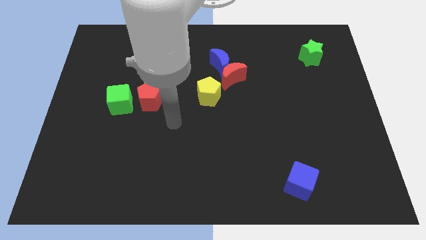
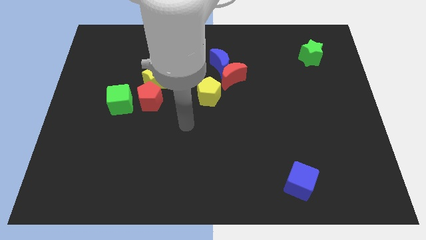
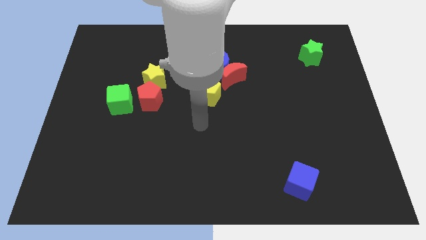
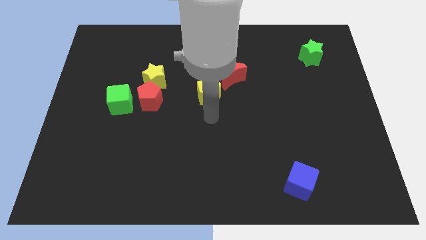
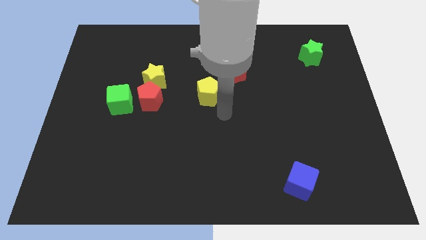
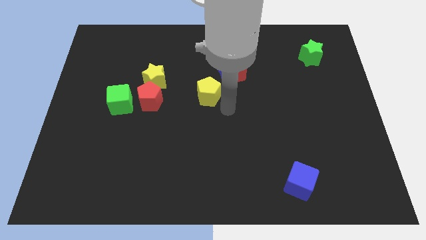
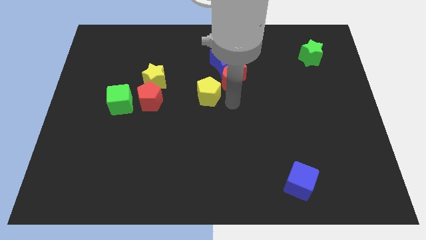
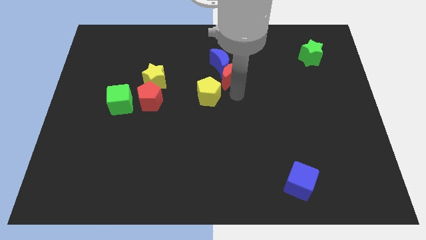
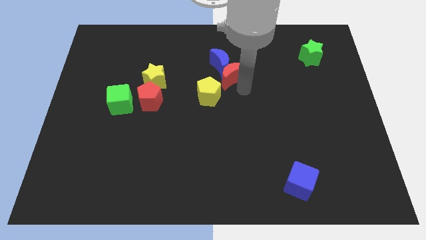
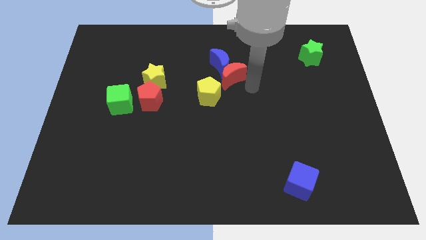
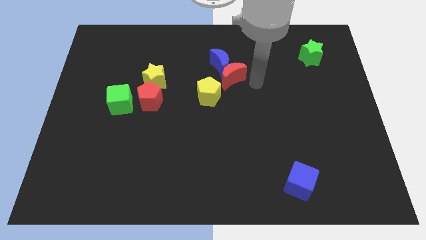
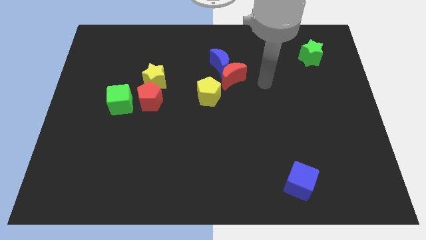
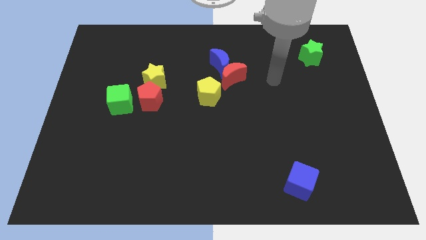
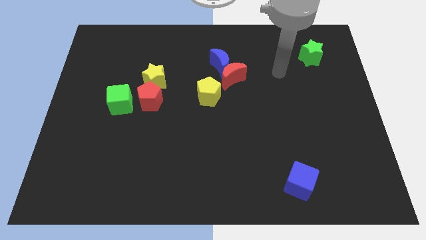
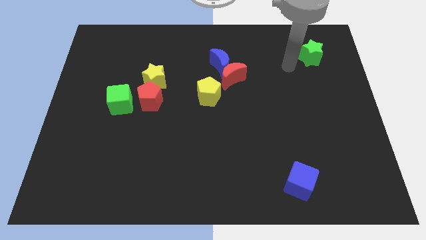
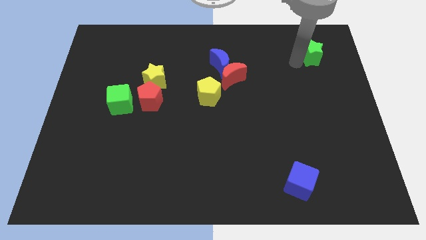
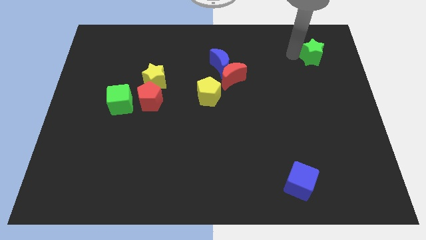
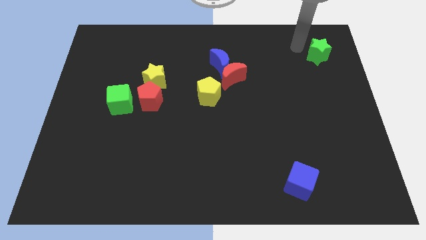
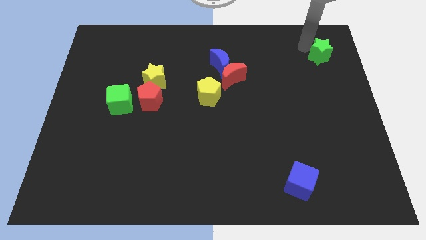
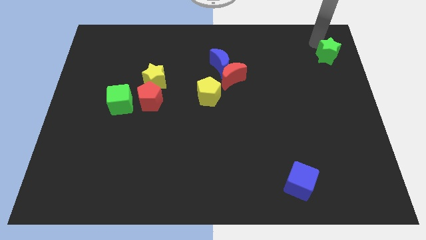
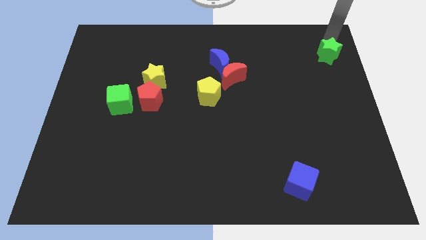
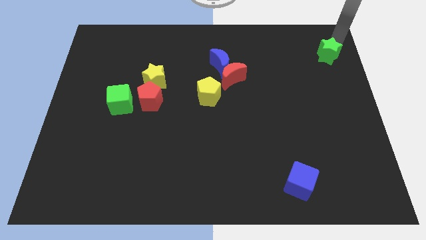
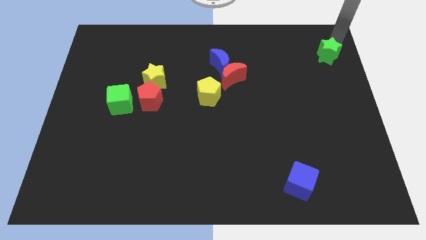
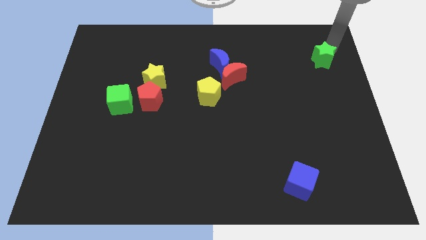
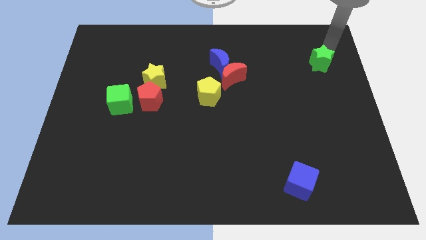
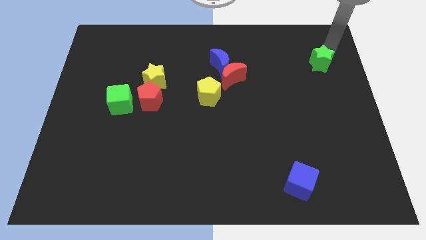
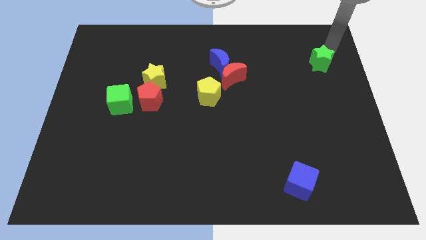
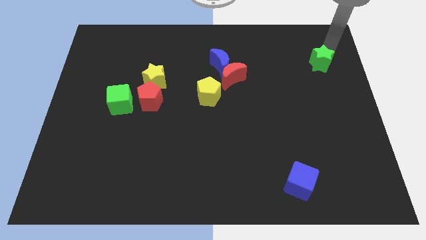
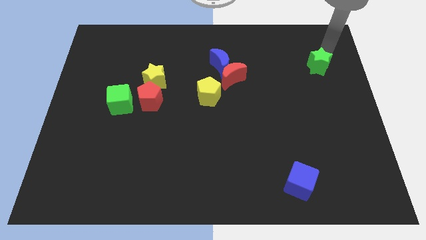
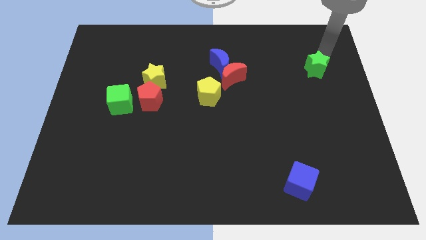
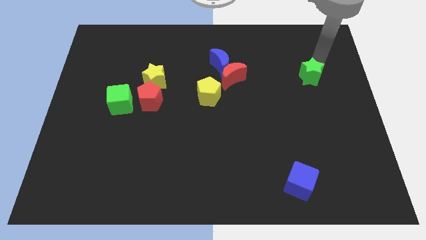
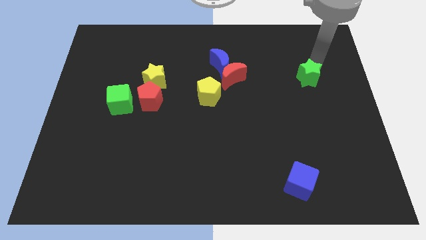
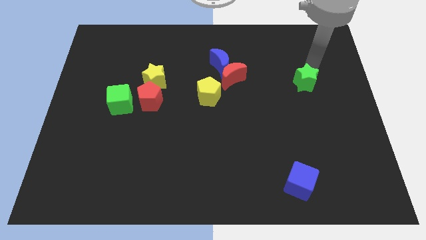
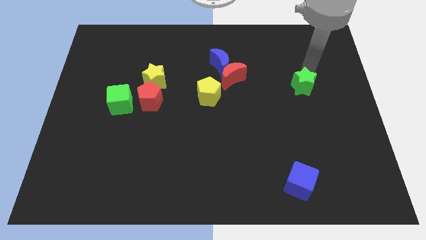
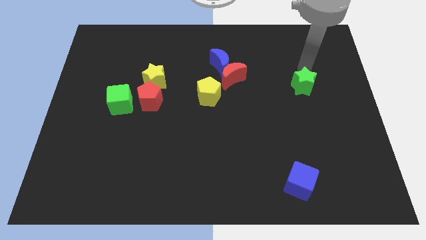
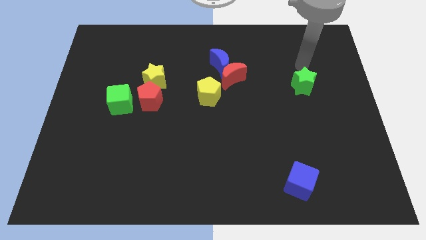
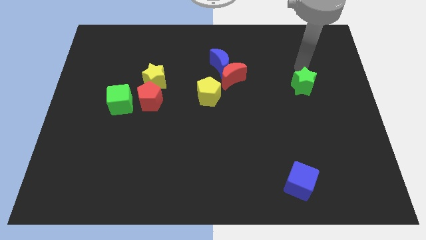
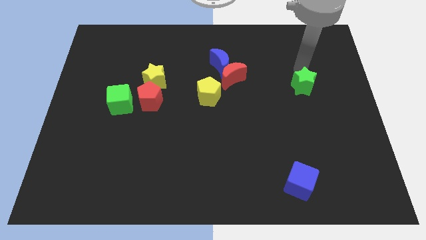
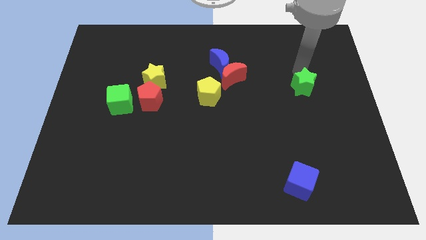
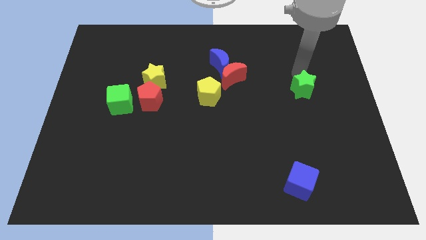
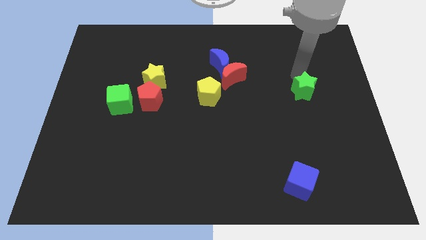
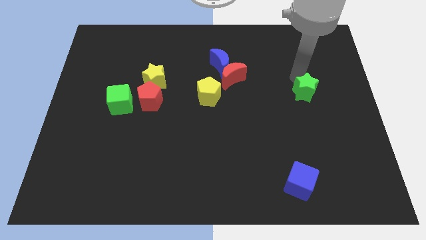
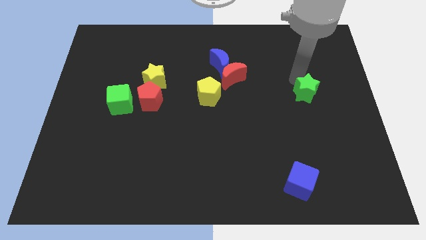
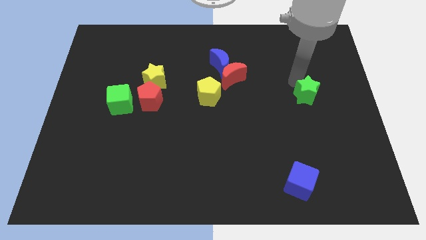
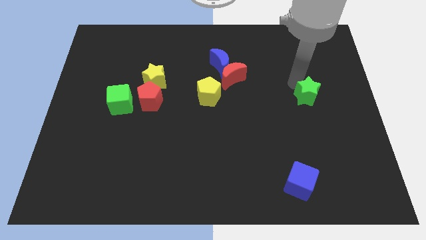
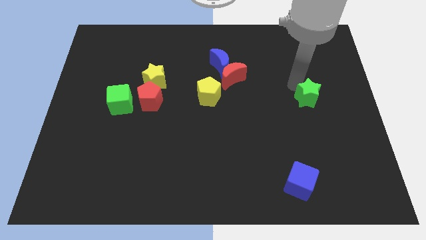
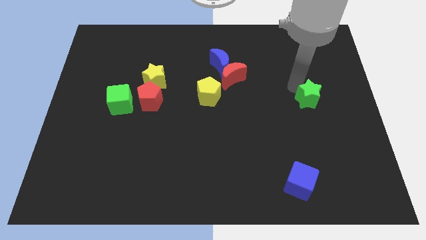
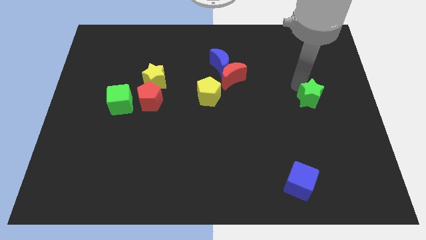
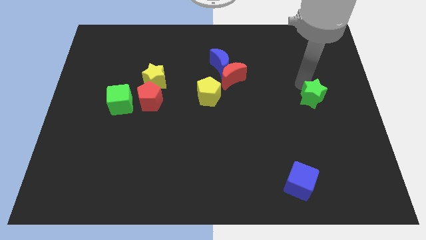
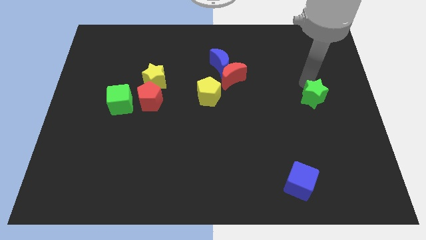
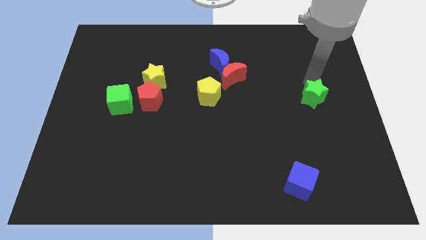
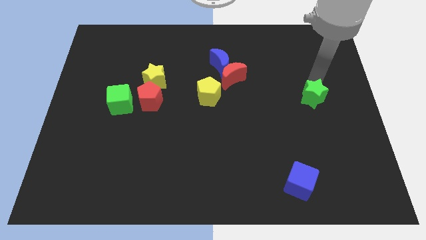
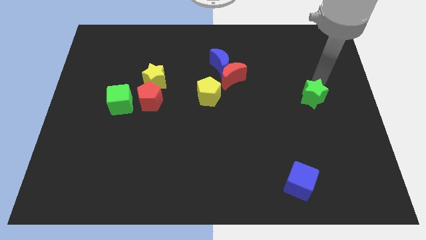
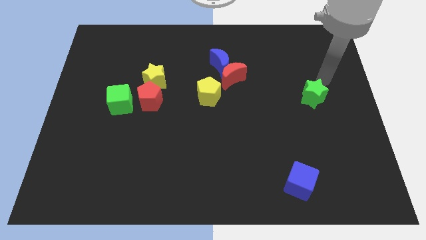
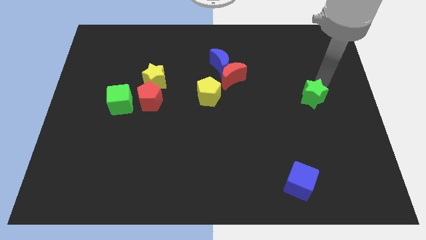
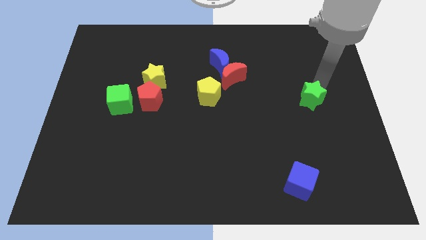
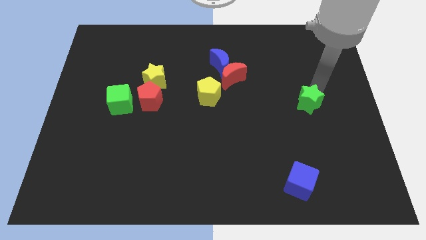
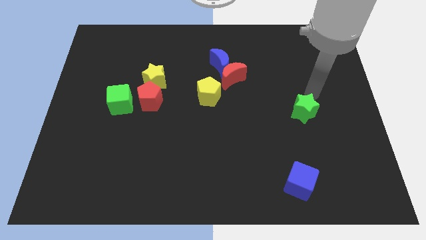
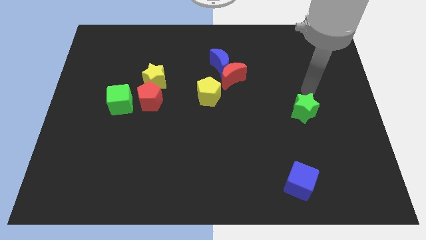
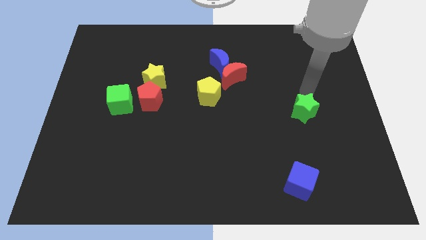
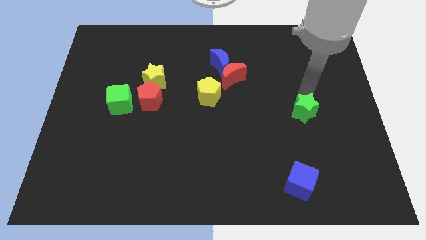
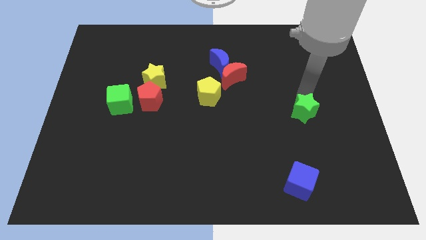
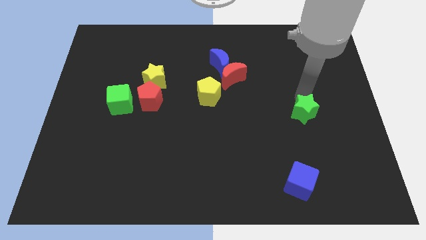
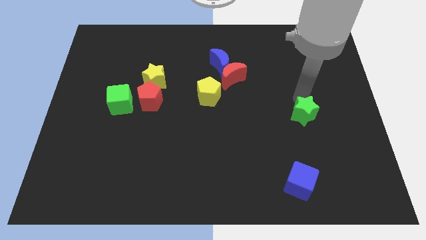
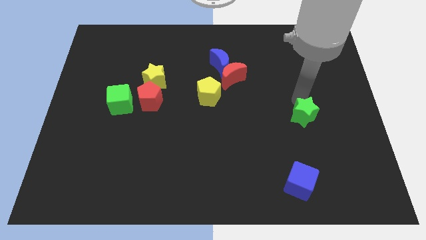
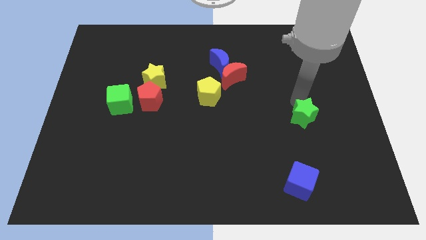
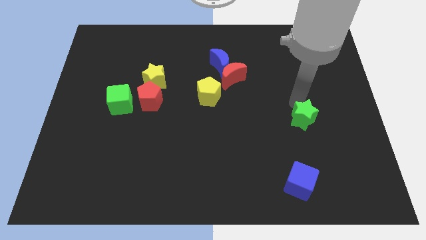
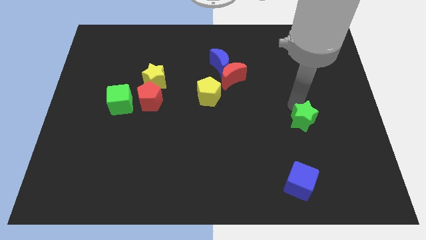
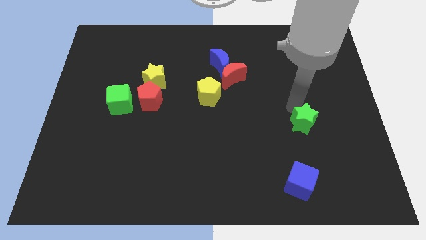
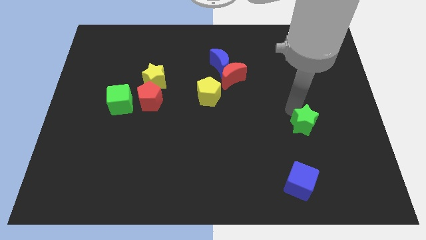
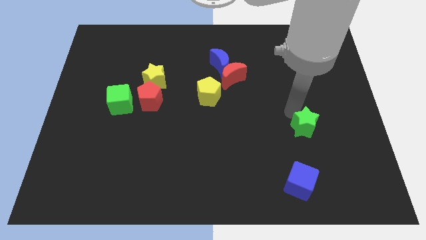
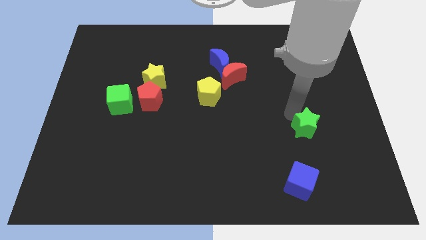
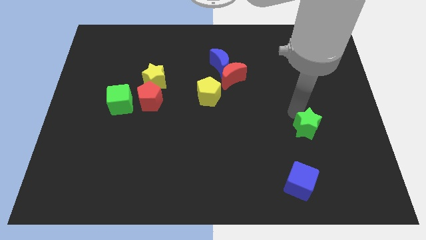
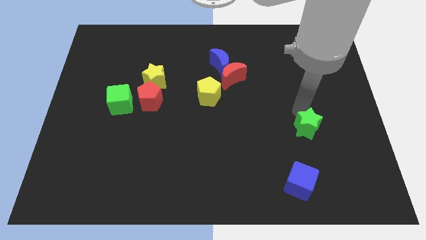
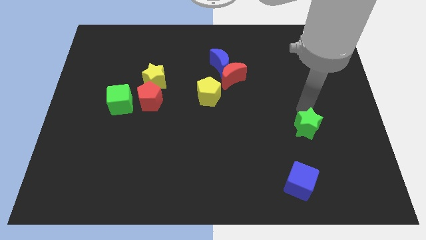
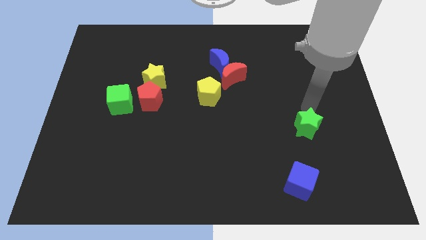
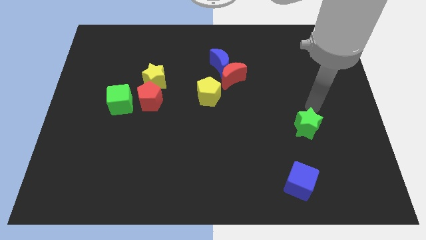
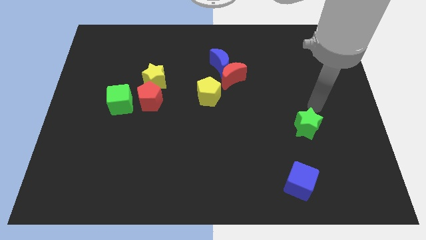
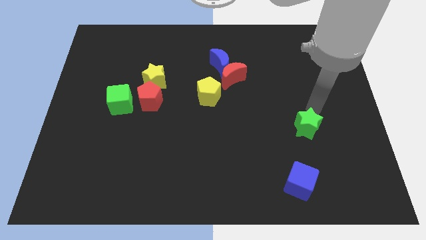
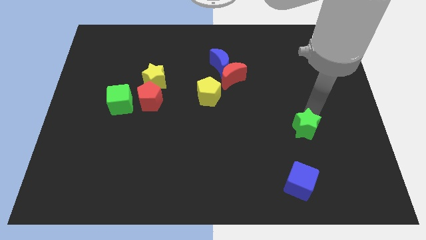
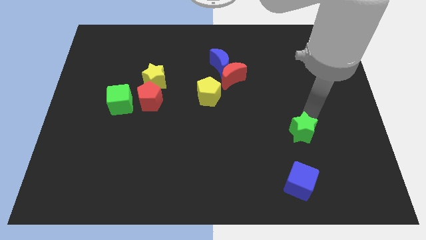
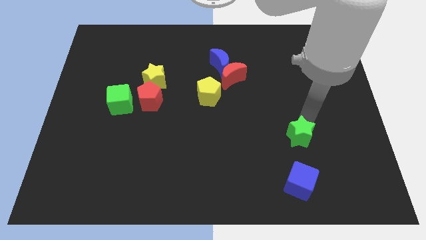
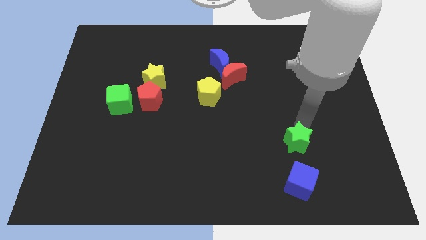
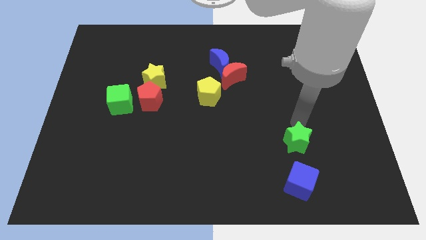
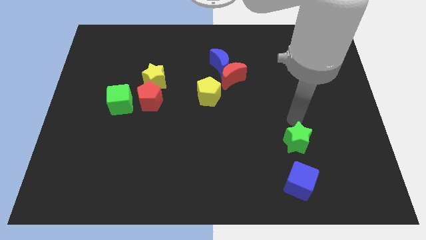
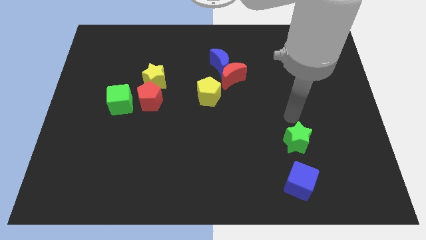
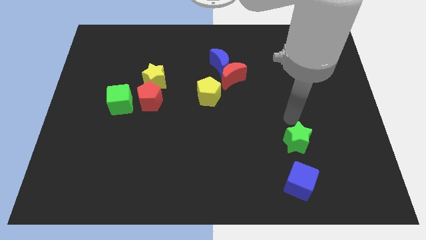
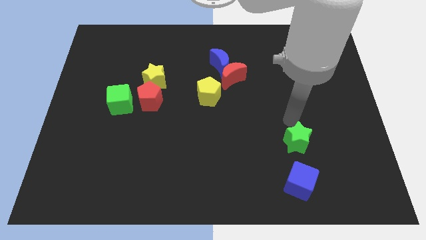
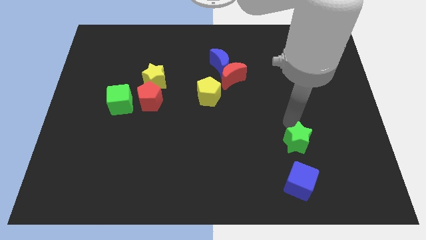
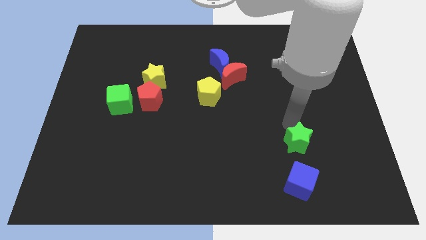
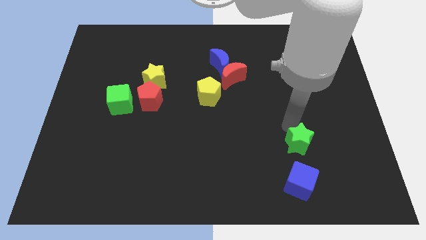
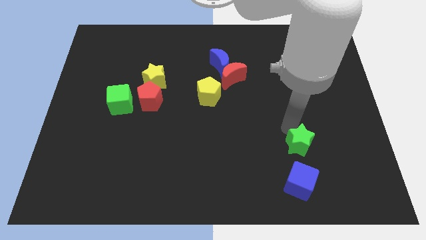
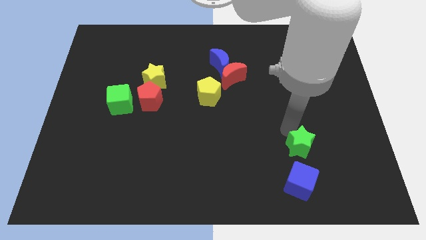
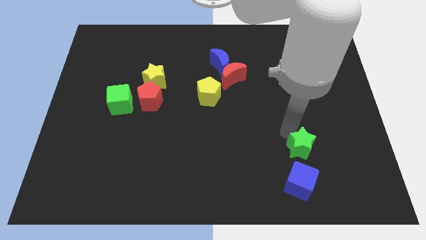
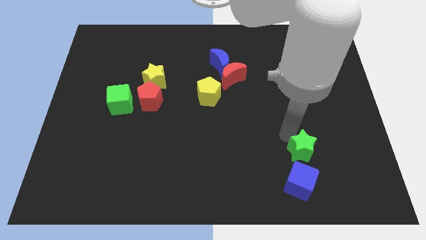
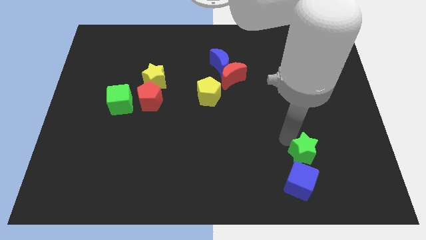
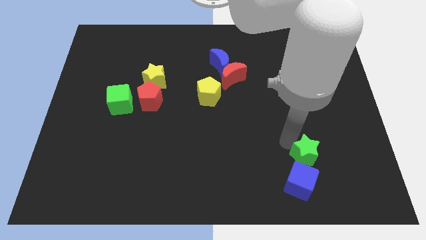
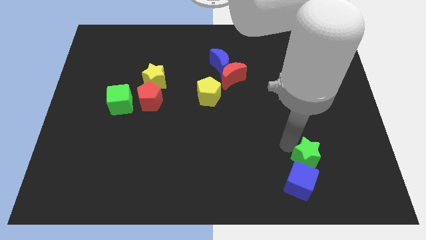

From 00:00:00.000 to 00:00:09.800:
put the green star next to the blue cube
